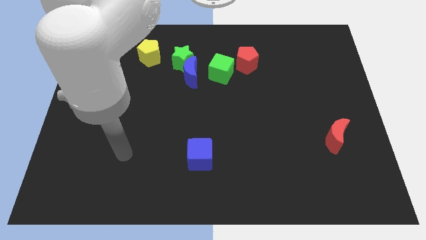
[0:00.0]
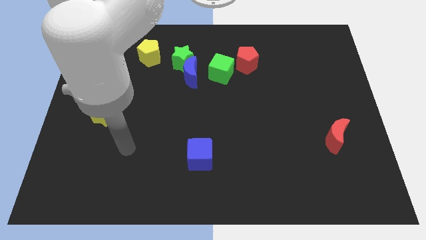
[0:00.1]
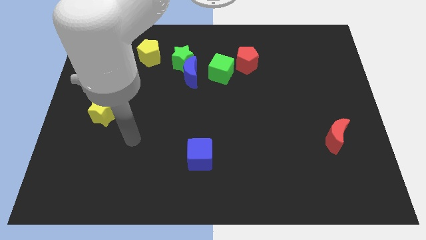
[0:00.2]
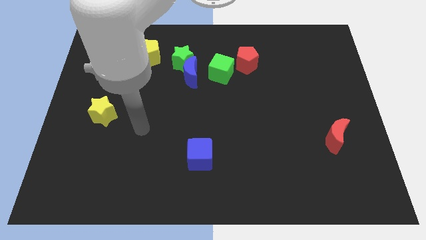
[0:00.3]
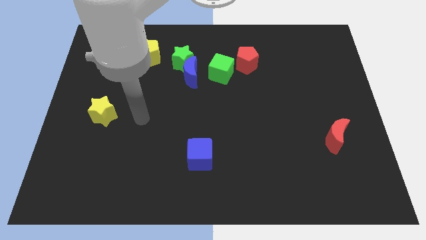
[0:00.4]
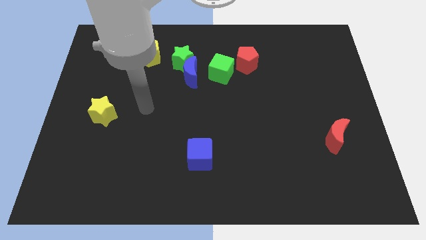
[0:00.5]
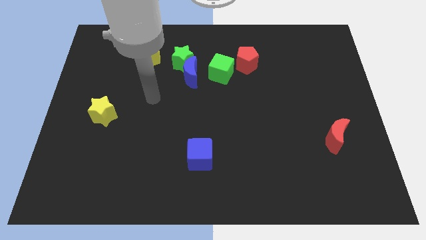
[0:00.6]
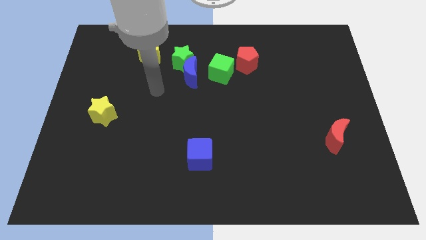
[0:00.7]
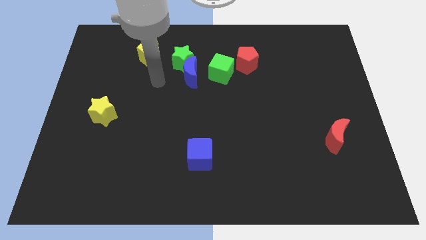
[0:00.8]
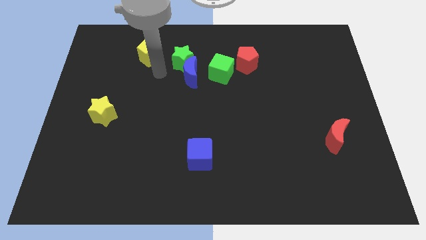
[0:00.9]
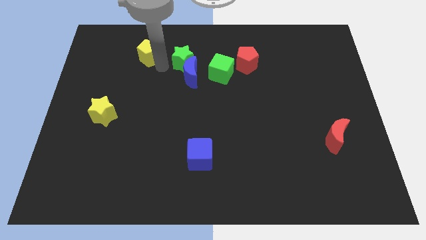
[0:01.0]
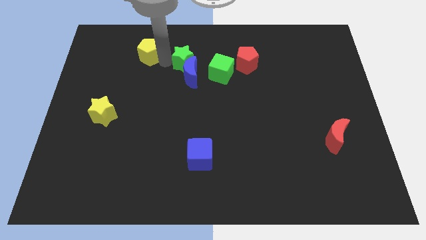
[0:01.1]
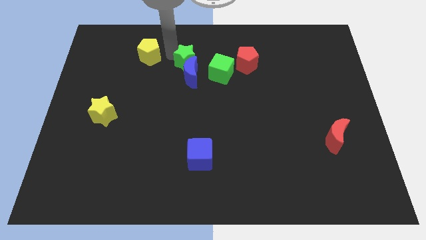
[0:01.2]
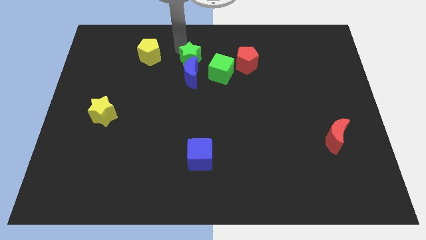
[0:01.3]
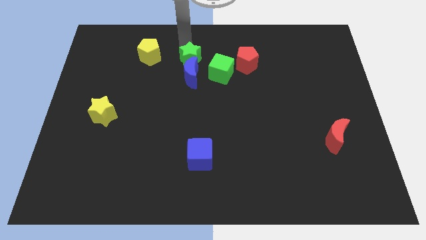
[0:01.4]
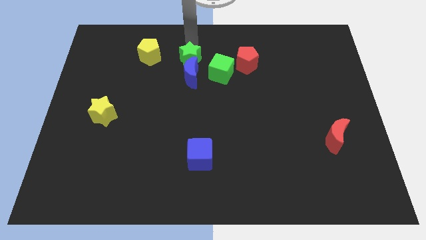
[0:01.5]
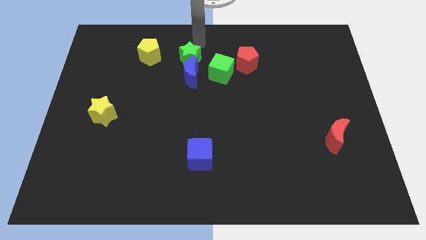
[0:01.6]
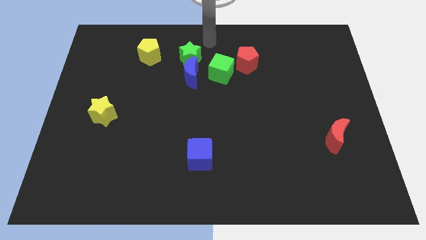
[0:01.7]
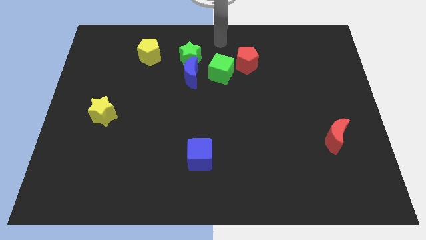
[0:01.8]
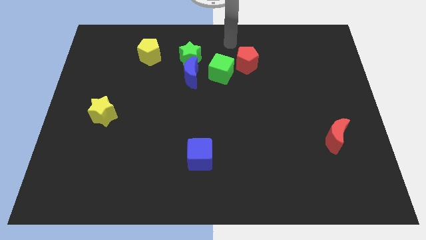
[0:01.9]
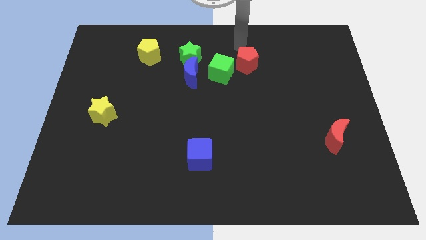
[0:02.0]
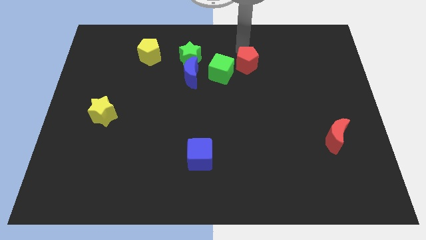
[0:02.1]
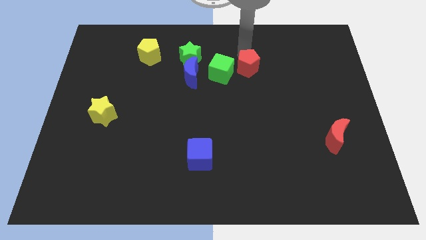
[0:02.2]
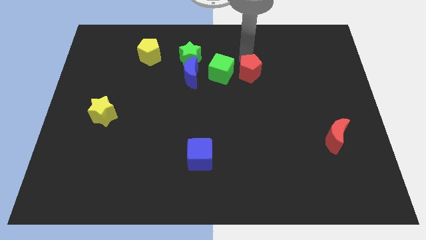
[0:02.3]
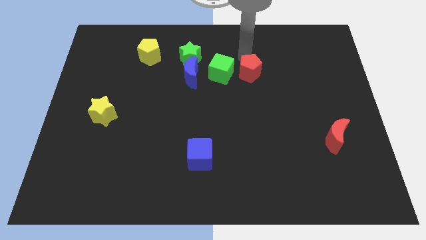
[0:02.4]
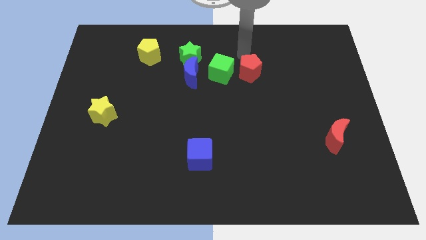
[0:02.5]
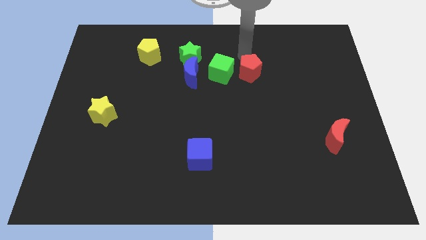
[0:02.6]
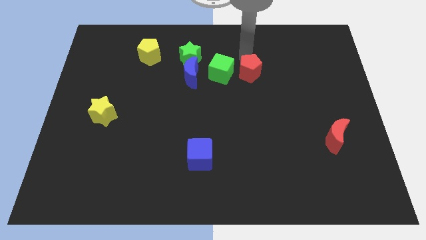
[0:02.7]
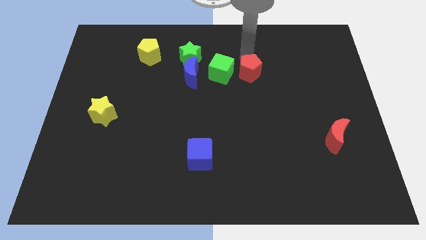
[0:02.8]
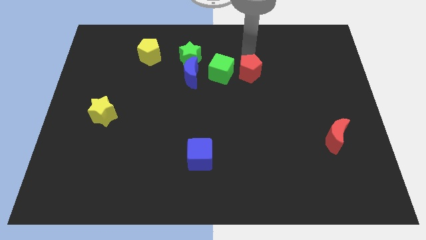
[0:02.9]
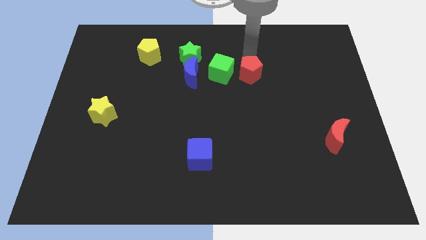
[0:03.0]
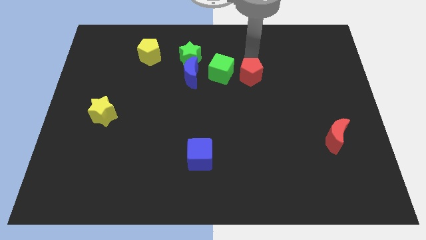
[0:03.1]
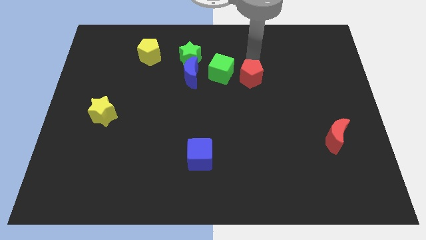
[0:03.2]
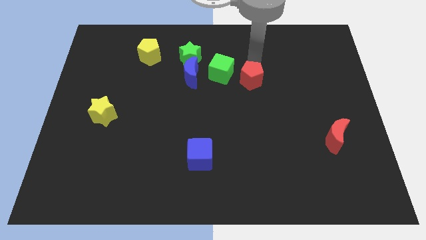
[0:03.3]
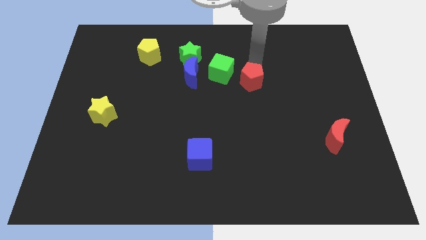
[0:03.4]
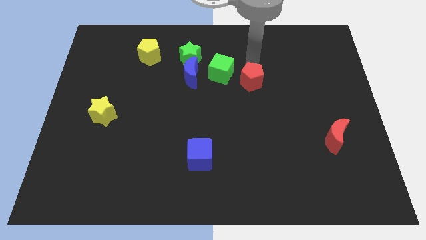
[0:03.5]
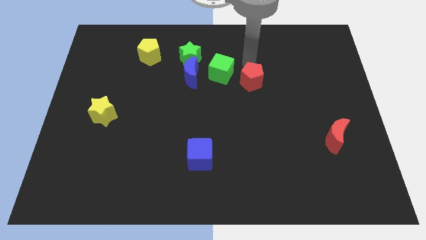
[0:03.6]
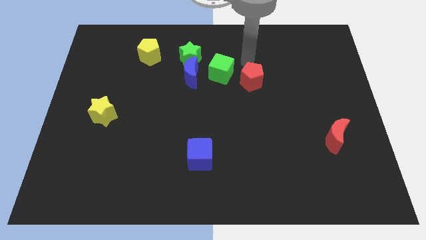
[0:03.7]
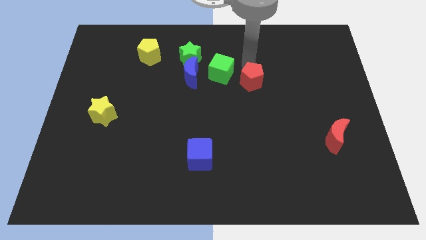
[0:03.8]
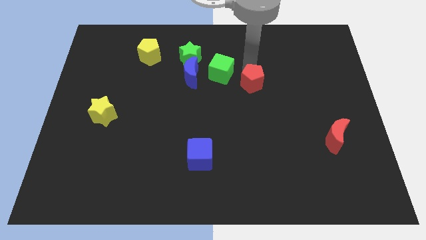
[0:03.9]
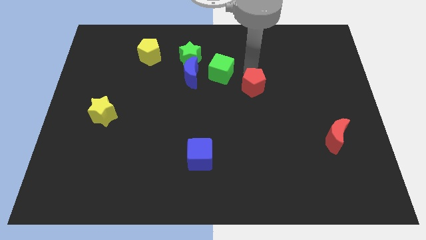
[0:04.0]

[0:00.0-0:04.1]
push the red pentagon a little down

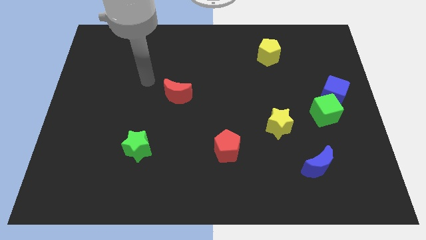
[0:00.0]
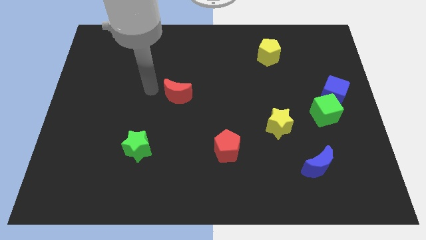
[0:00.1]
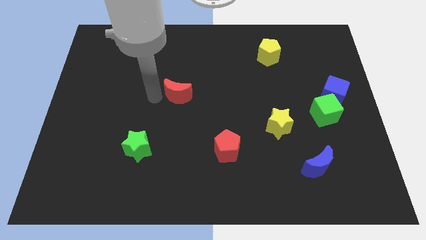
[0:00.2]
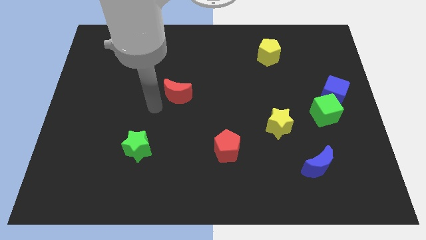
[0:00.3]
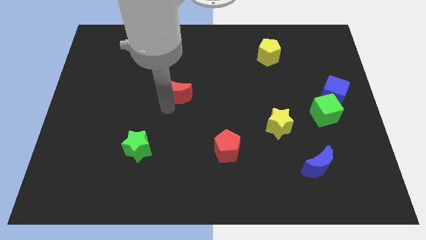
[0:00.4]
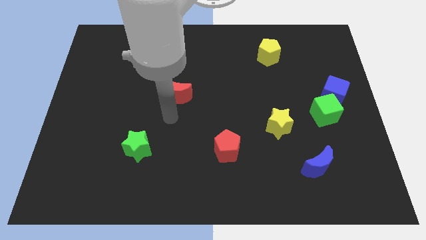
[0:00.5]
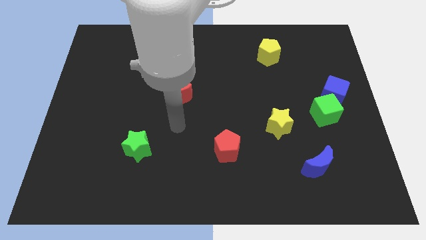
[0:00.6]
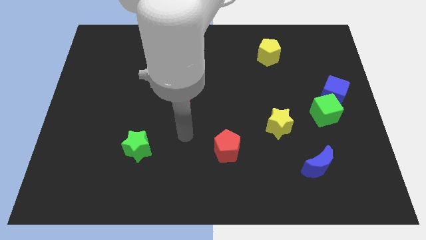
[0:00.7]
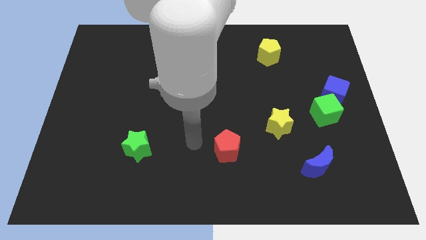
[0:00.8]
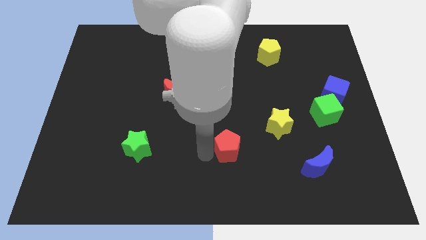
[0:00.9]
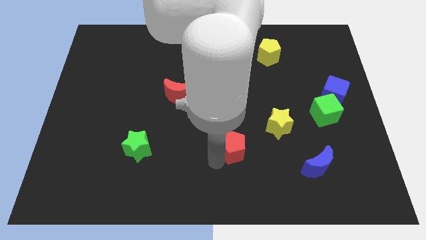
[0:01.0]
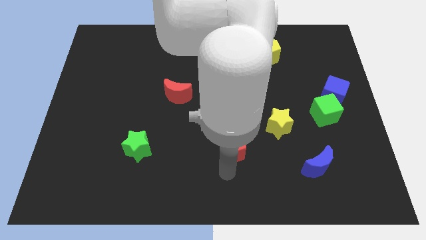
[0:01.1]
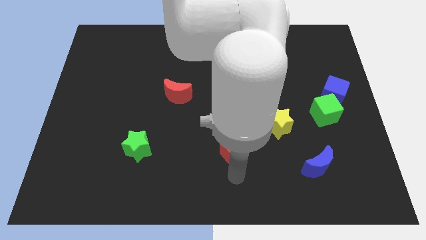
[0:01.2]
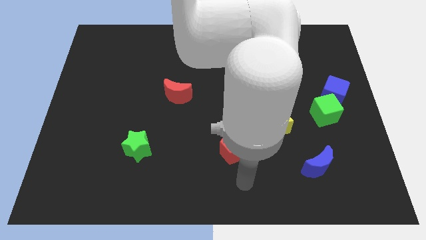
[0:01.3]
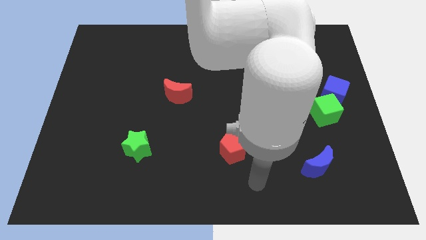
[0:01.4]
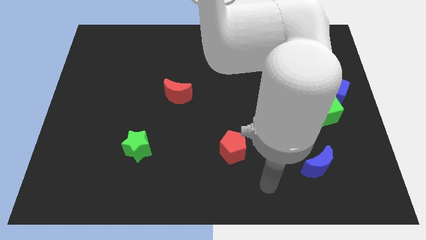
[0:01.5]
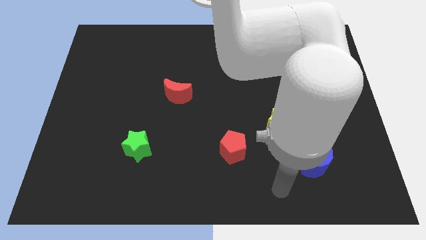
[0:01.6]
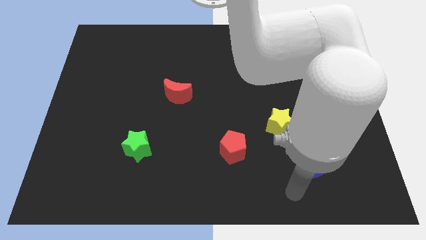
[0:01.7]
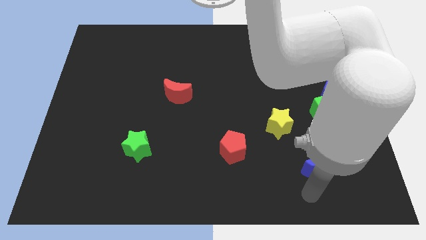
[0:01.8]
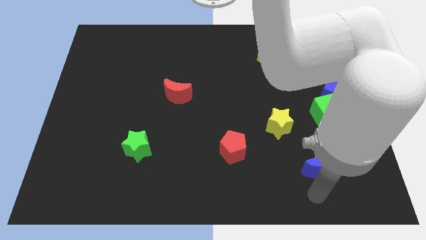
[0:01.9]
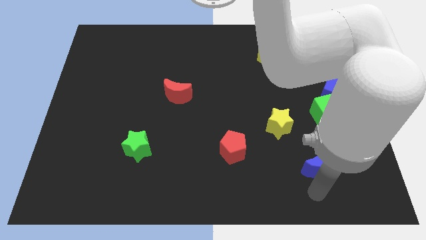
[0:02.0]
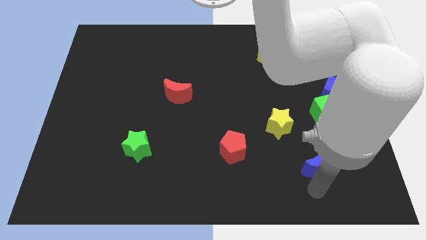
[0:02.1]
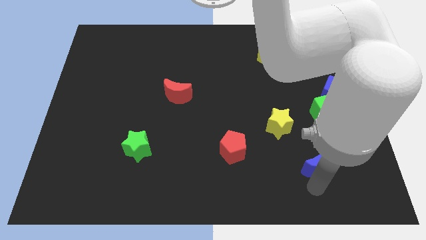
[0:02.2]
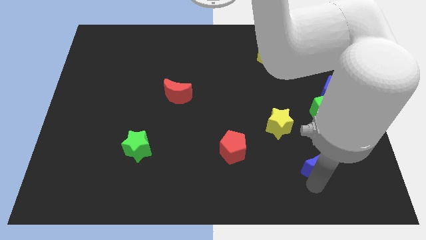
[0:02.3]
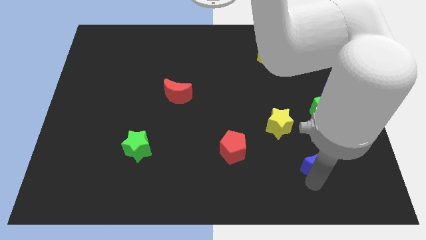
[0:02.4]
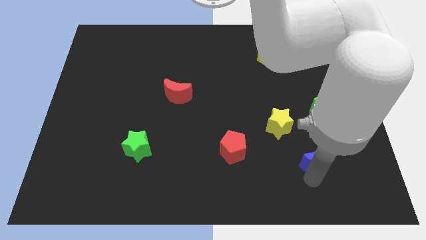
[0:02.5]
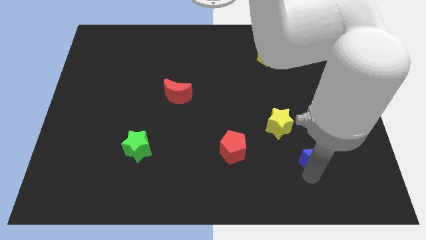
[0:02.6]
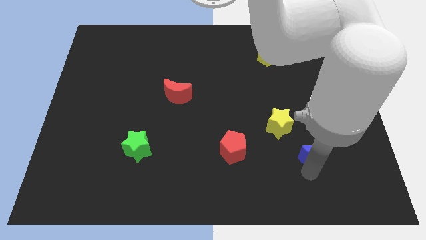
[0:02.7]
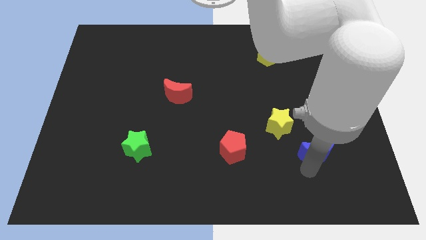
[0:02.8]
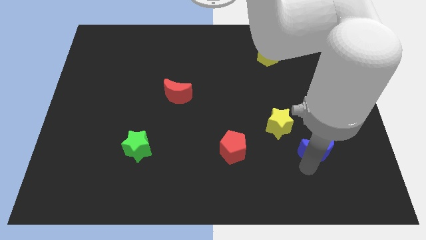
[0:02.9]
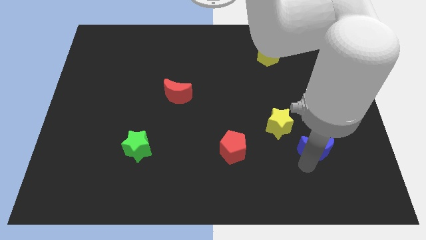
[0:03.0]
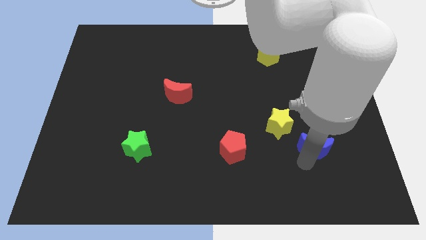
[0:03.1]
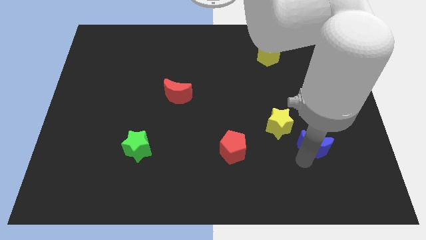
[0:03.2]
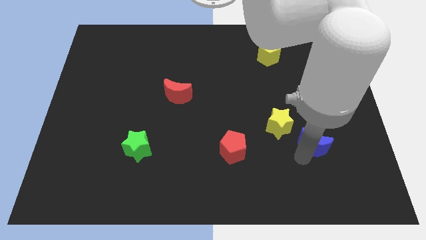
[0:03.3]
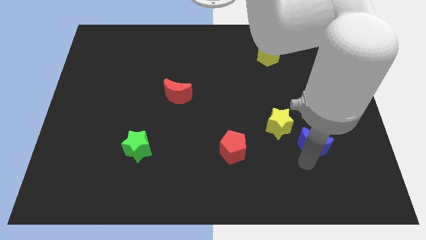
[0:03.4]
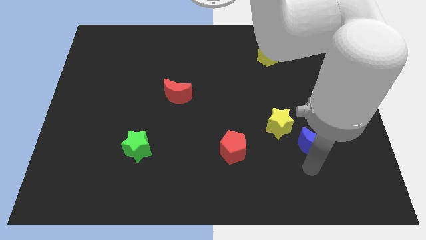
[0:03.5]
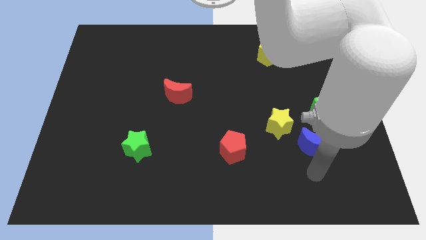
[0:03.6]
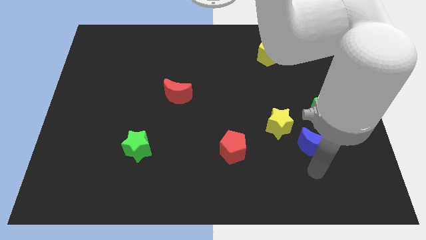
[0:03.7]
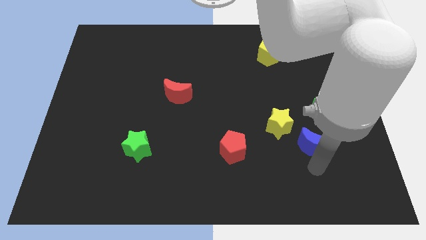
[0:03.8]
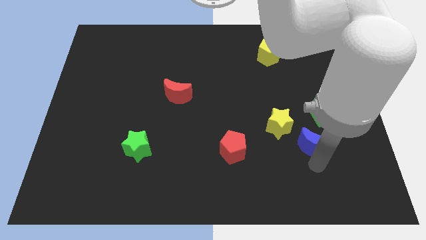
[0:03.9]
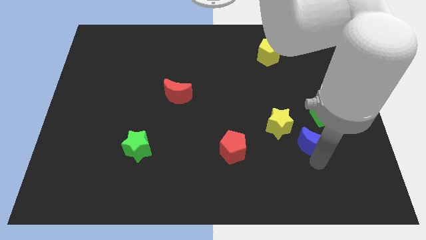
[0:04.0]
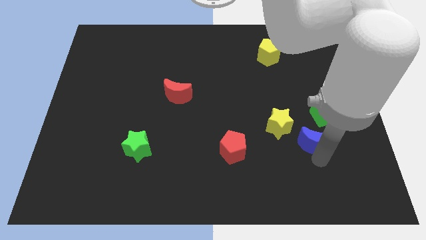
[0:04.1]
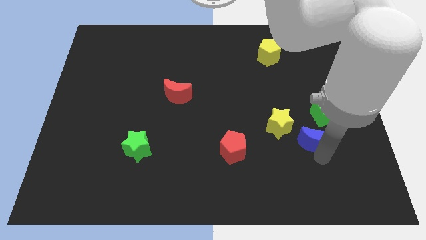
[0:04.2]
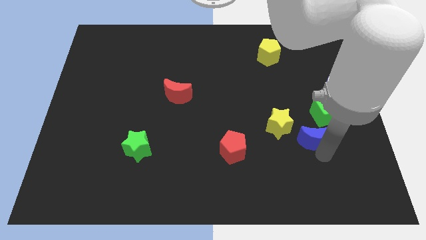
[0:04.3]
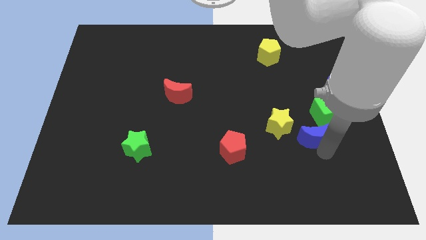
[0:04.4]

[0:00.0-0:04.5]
push the blue moon a little upwards
